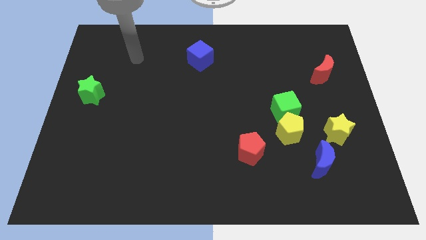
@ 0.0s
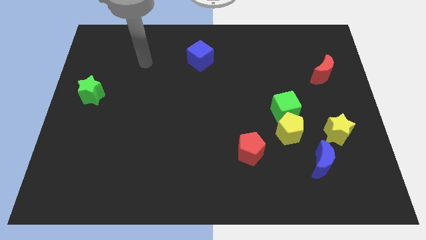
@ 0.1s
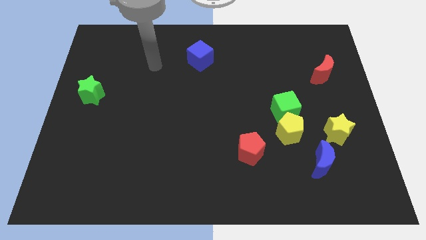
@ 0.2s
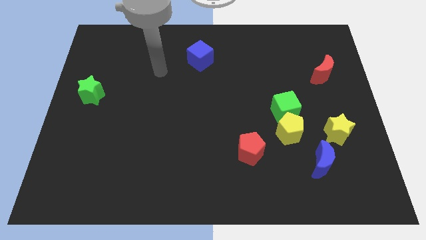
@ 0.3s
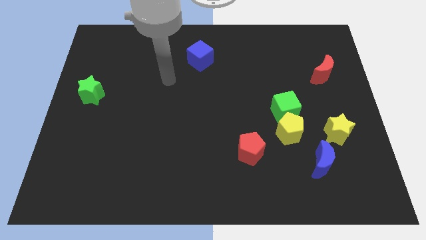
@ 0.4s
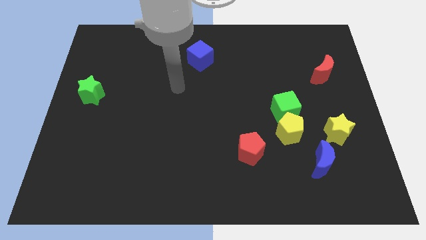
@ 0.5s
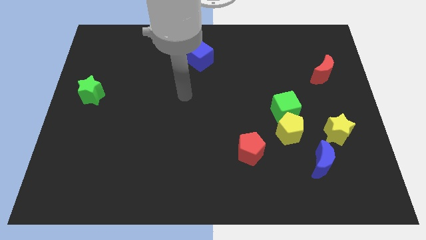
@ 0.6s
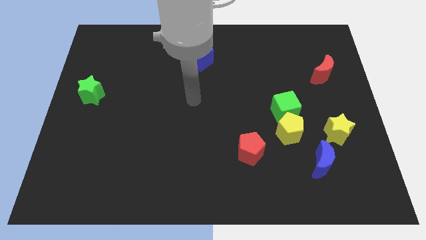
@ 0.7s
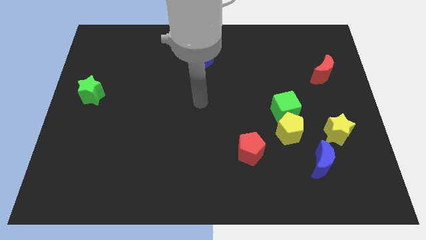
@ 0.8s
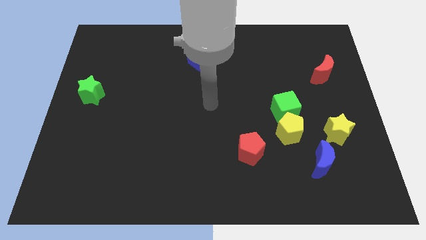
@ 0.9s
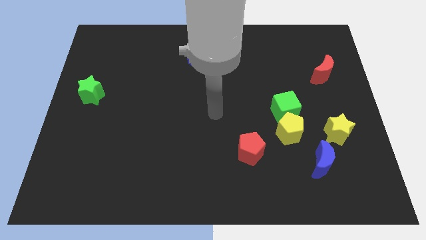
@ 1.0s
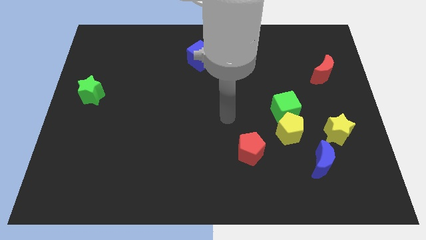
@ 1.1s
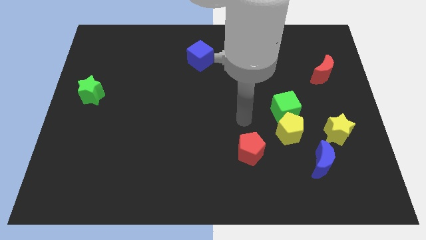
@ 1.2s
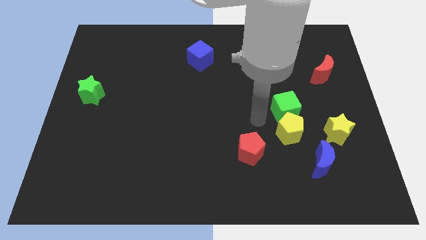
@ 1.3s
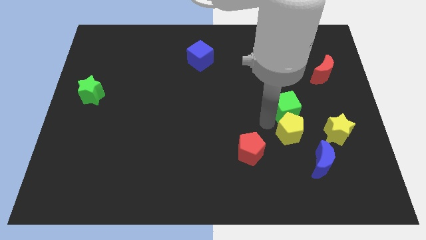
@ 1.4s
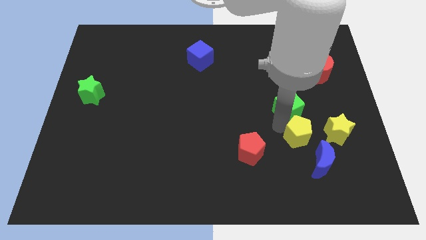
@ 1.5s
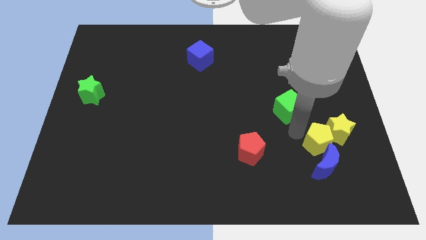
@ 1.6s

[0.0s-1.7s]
move the green cube away from the yellow pentagon

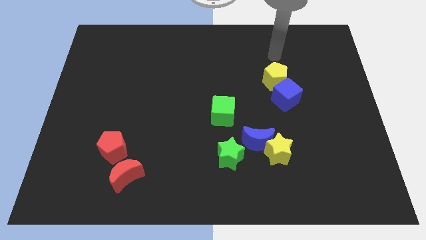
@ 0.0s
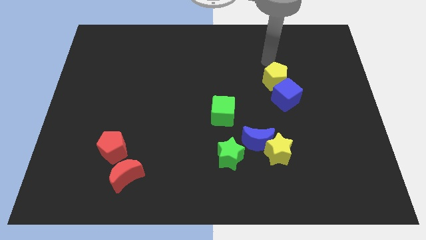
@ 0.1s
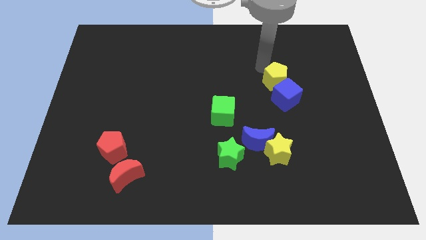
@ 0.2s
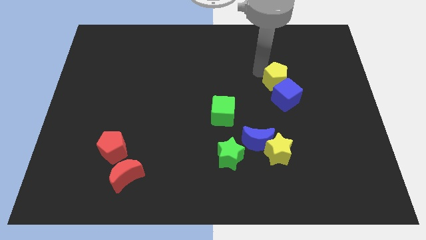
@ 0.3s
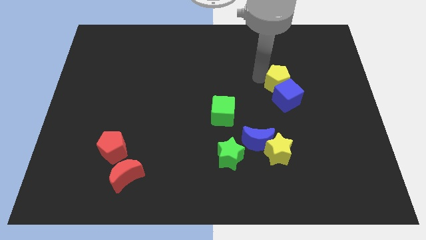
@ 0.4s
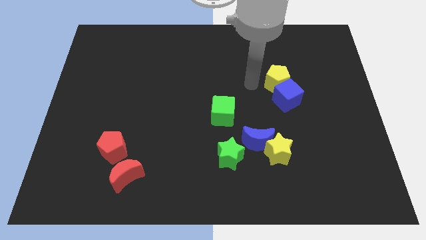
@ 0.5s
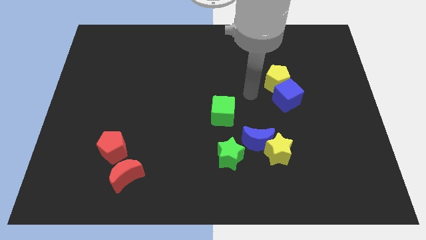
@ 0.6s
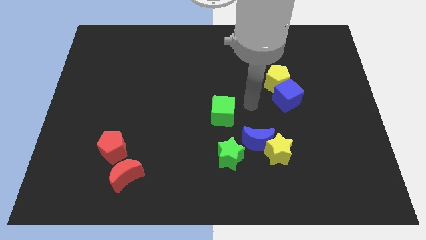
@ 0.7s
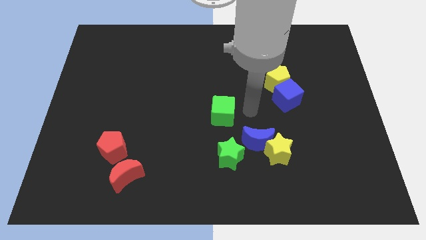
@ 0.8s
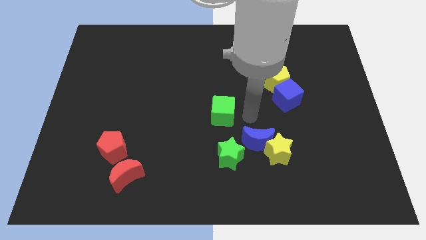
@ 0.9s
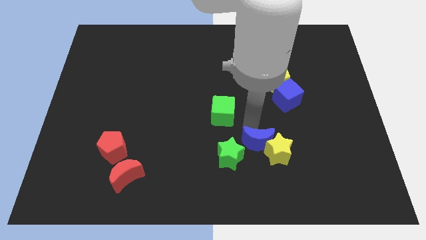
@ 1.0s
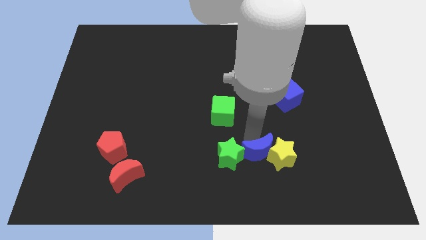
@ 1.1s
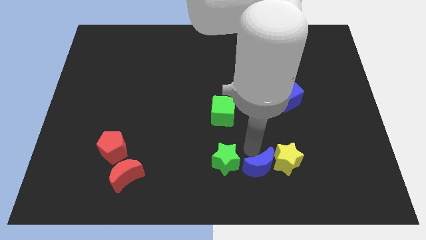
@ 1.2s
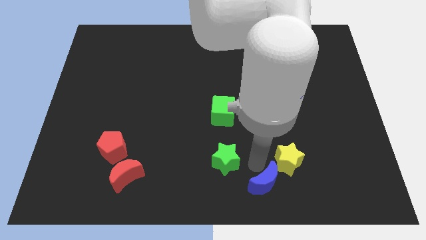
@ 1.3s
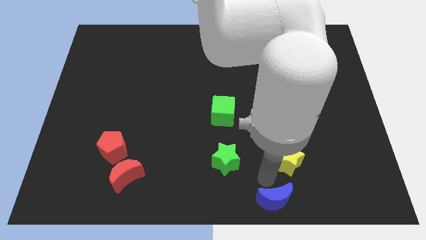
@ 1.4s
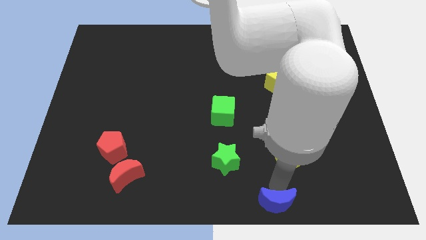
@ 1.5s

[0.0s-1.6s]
move the yellow star away from the blue moon

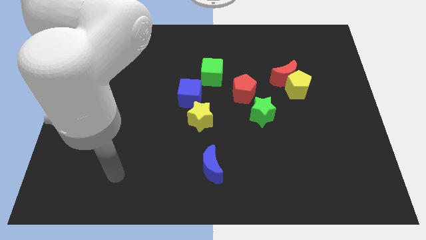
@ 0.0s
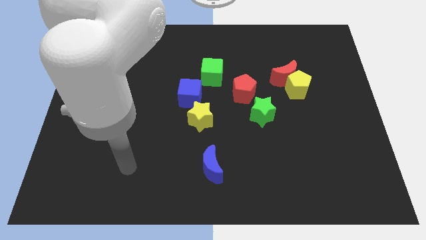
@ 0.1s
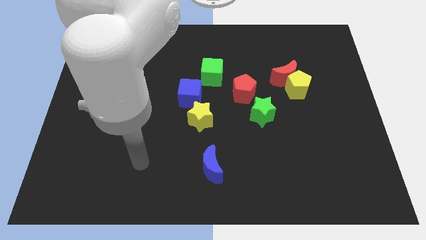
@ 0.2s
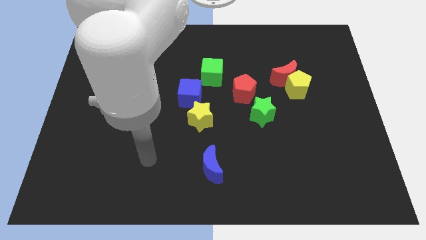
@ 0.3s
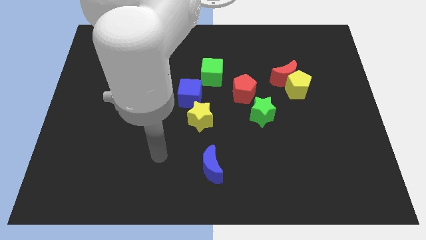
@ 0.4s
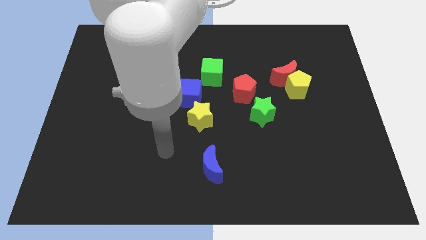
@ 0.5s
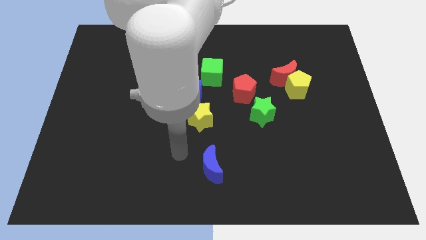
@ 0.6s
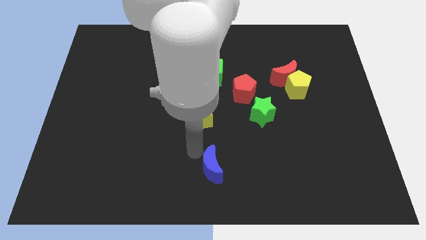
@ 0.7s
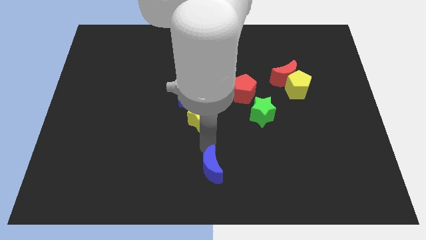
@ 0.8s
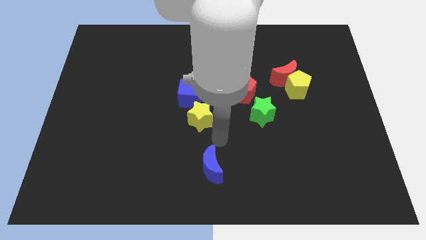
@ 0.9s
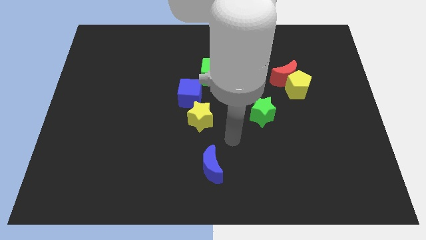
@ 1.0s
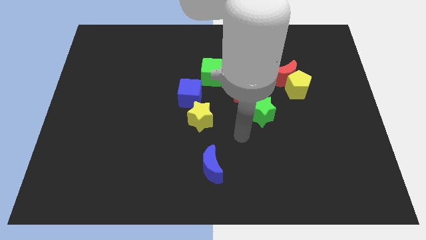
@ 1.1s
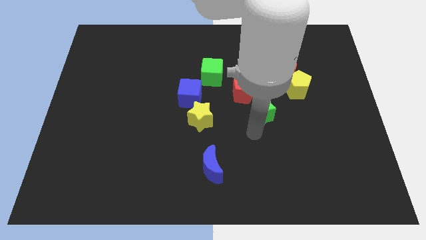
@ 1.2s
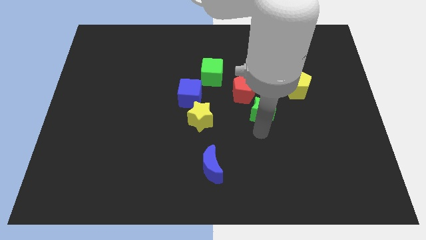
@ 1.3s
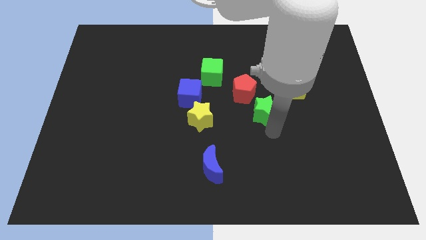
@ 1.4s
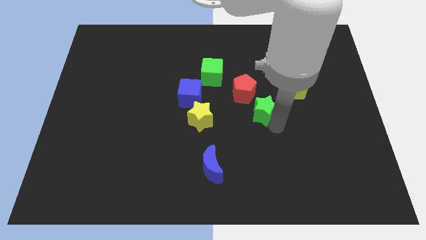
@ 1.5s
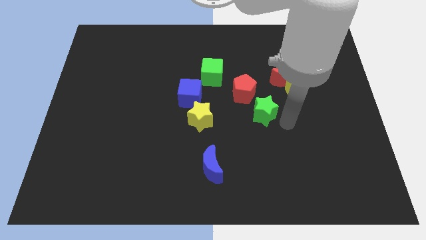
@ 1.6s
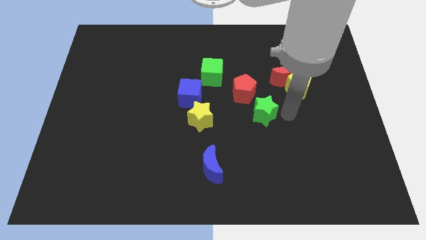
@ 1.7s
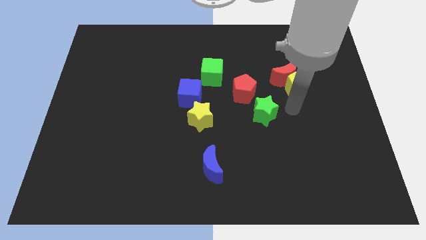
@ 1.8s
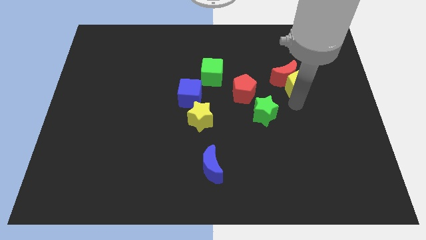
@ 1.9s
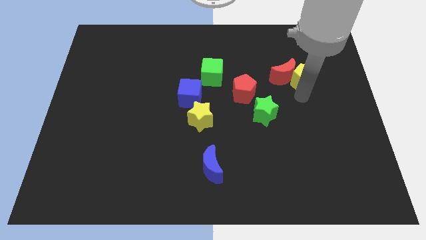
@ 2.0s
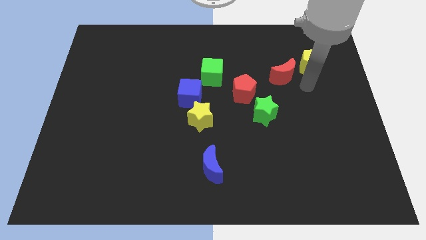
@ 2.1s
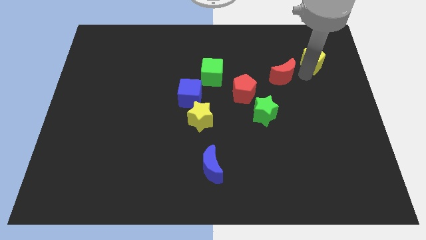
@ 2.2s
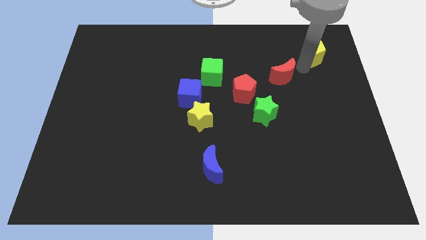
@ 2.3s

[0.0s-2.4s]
pull the red moon apart from the yellow pentagon

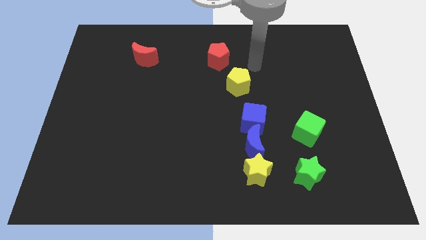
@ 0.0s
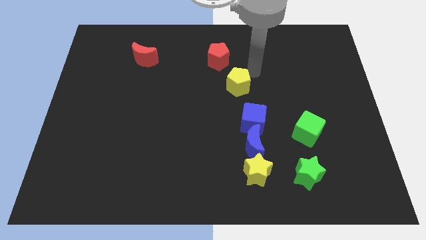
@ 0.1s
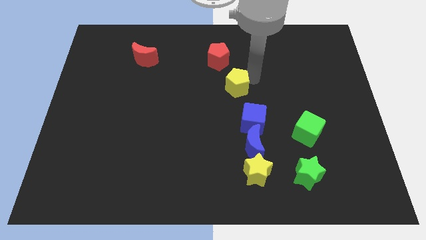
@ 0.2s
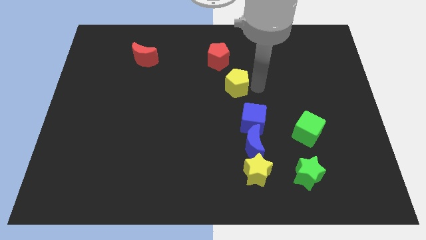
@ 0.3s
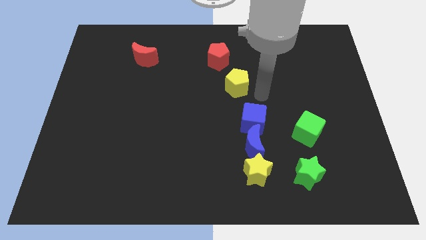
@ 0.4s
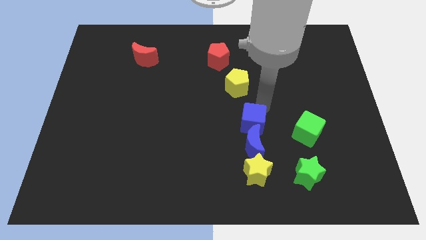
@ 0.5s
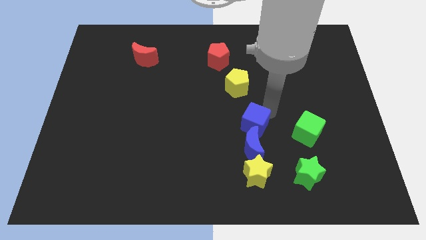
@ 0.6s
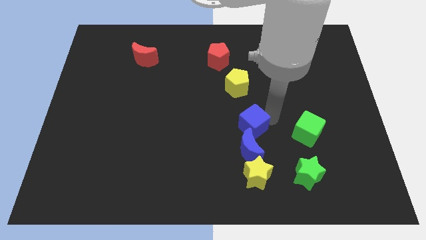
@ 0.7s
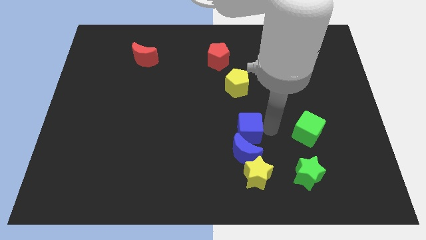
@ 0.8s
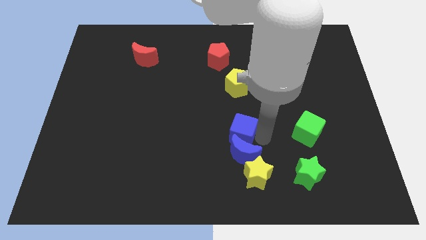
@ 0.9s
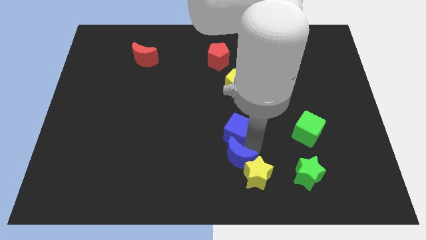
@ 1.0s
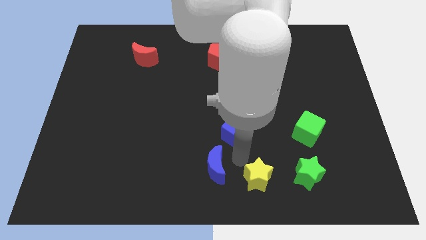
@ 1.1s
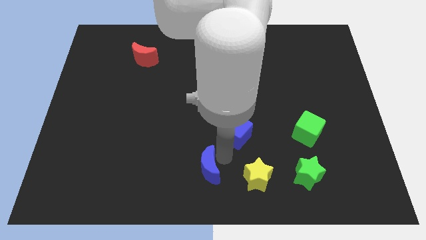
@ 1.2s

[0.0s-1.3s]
pull the blue cube apart from the blue moon

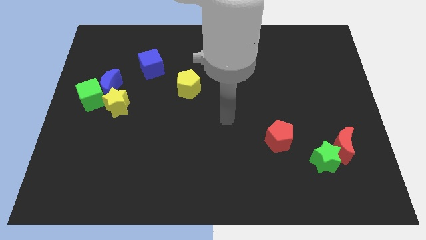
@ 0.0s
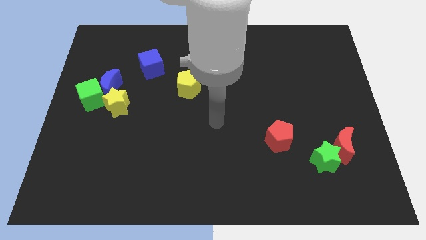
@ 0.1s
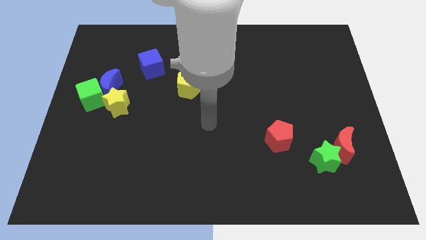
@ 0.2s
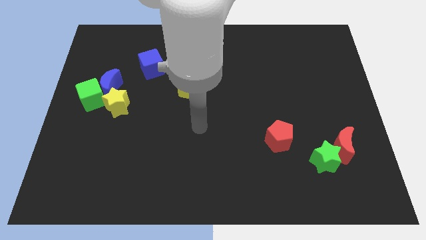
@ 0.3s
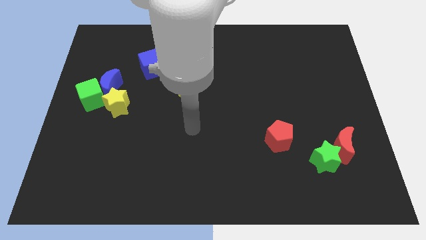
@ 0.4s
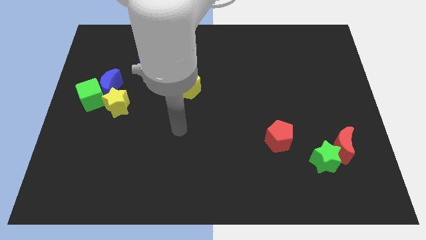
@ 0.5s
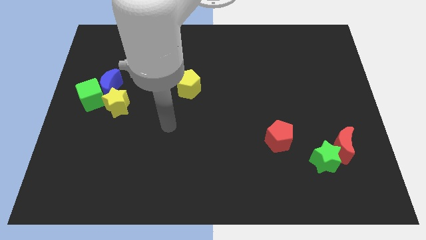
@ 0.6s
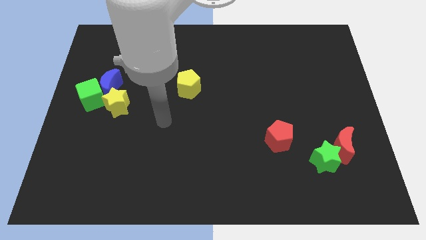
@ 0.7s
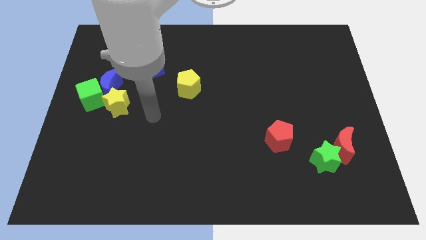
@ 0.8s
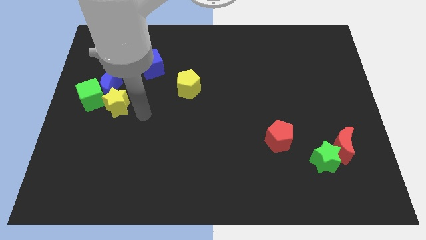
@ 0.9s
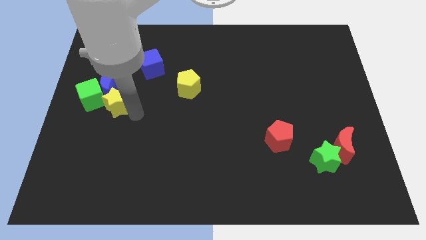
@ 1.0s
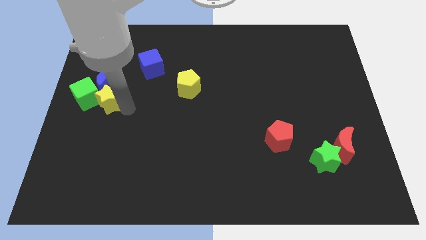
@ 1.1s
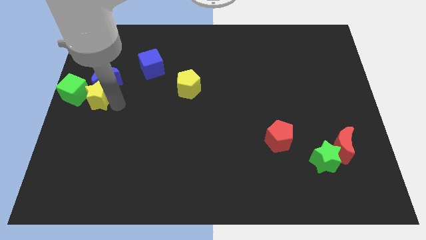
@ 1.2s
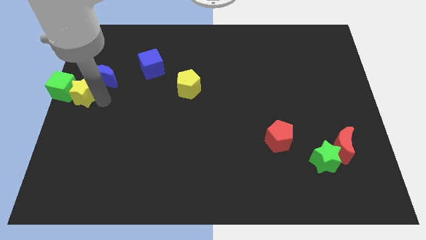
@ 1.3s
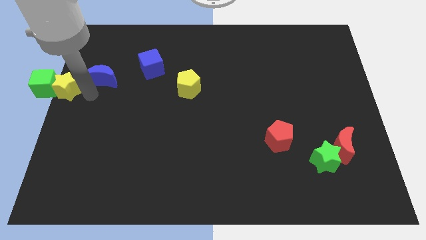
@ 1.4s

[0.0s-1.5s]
separate the blue moon from the green cube and yellow star

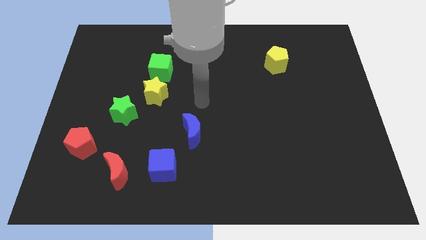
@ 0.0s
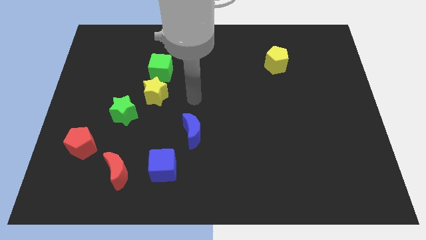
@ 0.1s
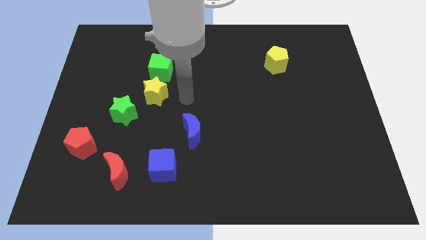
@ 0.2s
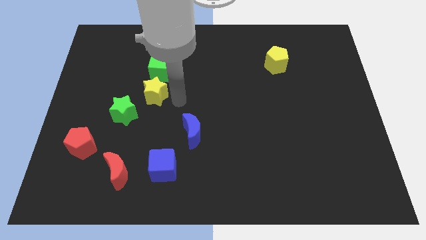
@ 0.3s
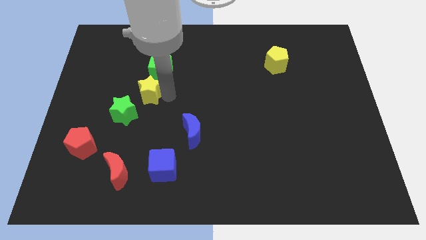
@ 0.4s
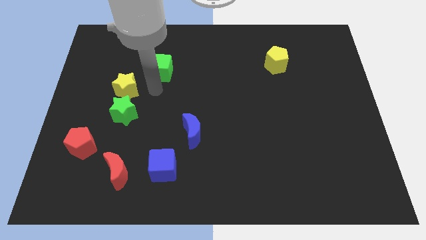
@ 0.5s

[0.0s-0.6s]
separate the green cube from the yellow star

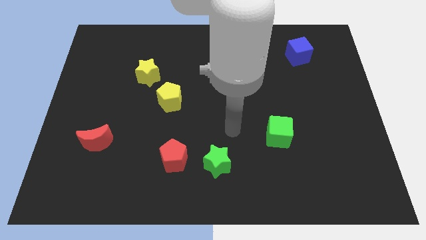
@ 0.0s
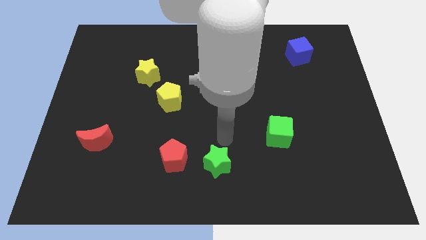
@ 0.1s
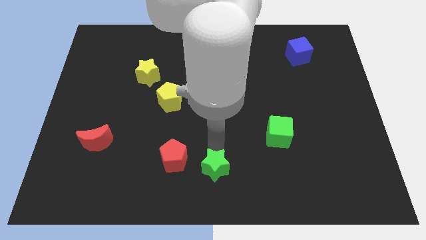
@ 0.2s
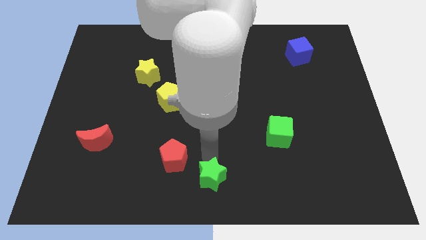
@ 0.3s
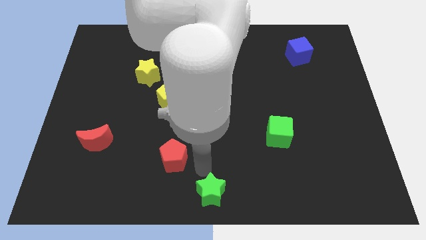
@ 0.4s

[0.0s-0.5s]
pull the red pentagon apart from the green star
